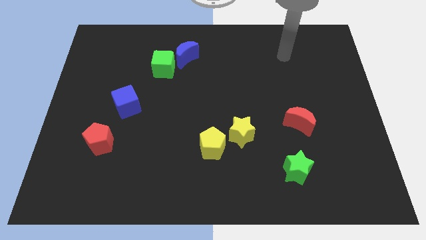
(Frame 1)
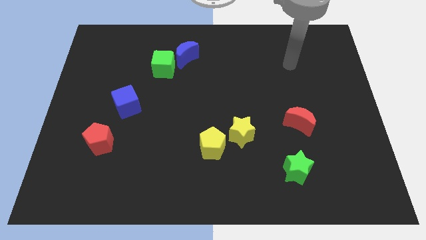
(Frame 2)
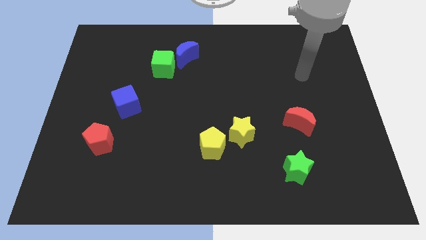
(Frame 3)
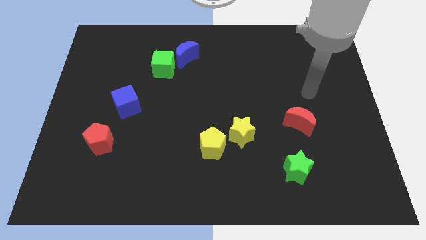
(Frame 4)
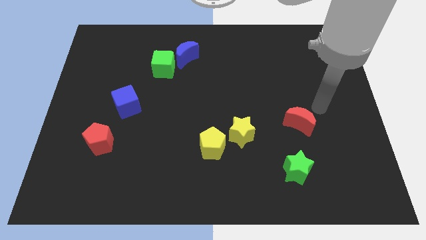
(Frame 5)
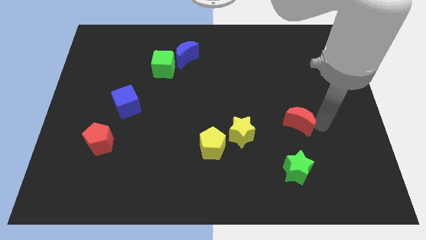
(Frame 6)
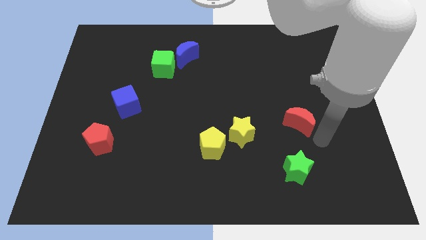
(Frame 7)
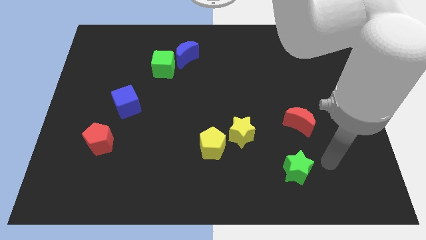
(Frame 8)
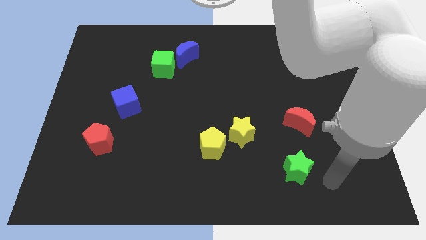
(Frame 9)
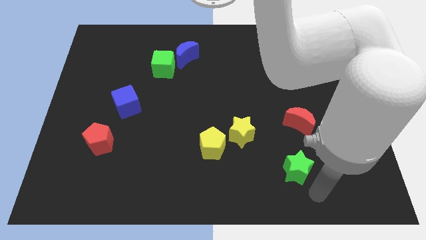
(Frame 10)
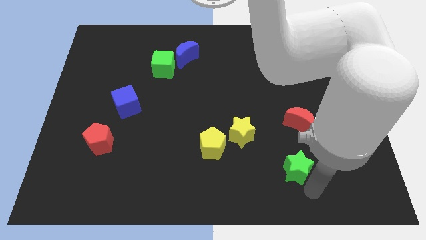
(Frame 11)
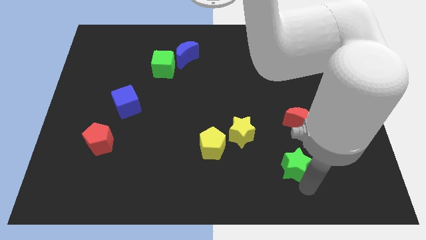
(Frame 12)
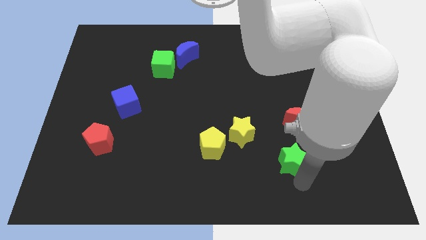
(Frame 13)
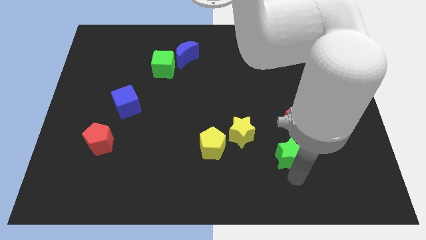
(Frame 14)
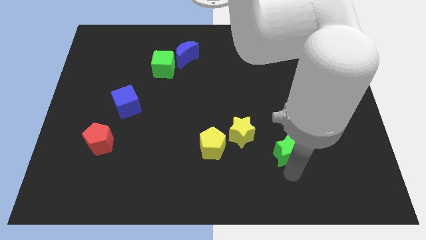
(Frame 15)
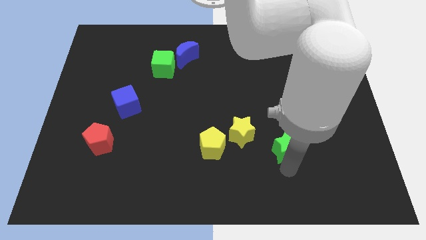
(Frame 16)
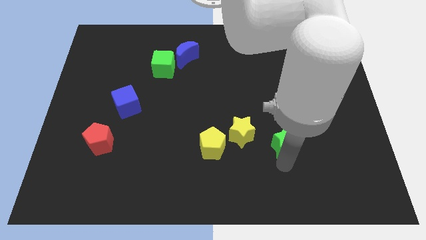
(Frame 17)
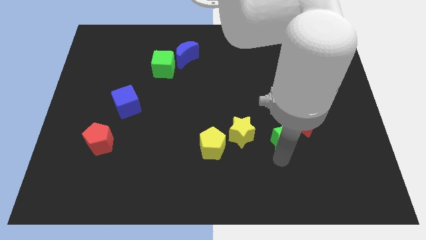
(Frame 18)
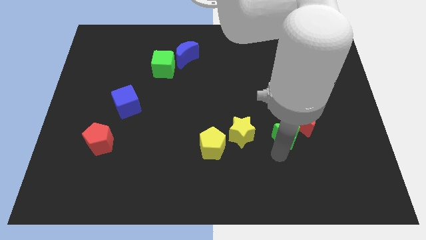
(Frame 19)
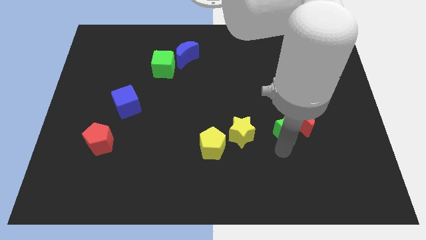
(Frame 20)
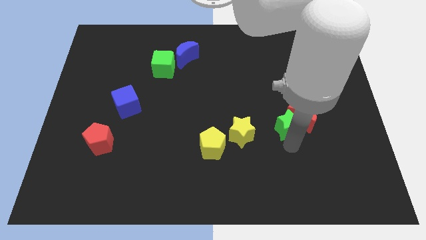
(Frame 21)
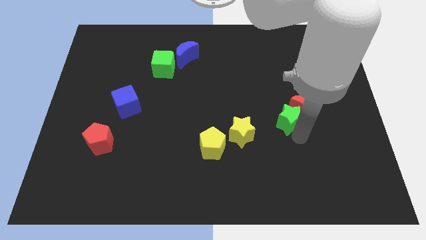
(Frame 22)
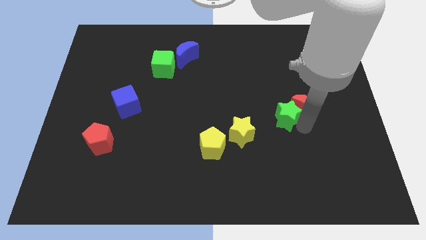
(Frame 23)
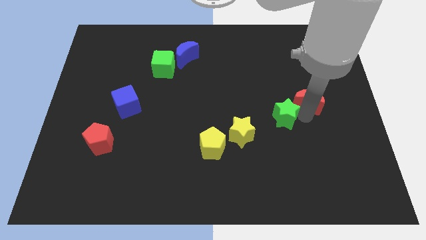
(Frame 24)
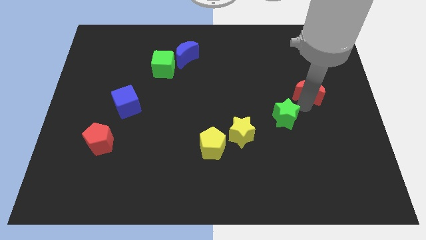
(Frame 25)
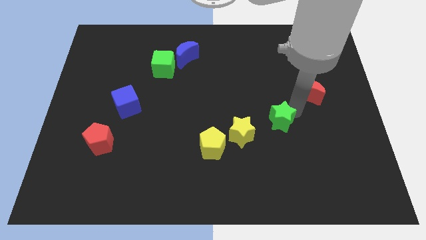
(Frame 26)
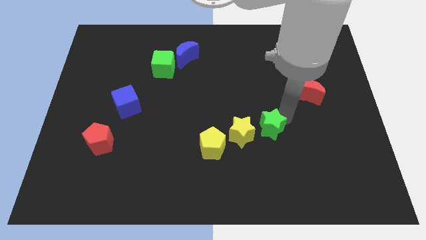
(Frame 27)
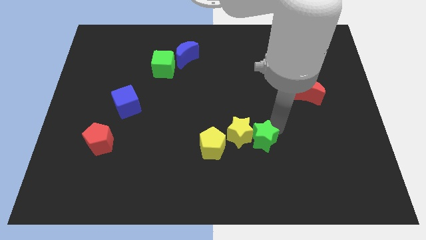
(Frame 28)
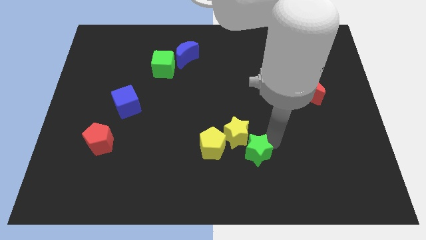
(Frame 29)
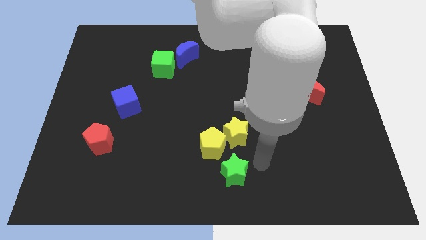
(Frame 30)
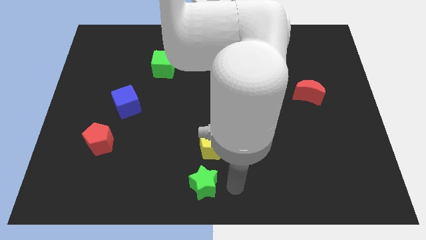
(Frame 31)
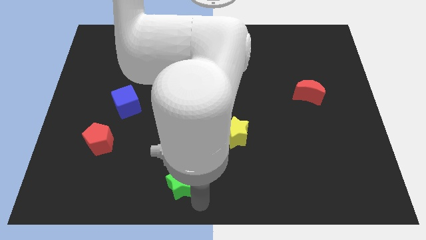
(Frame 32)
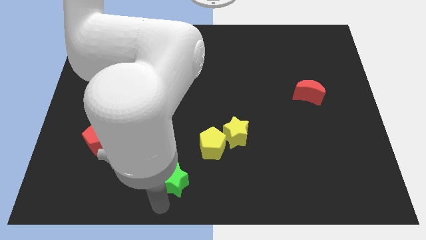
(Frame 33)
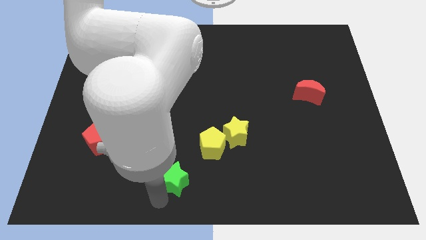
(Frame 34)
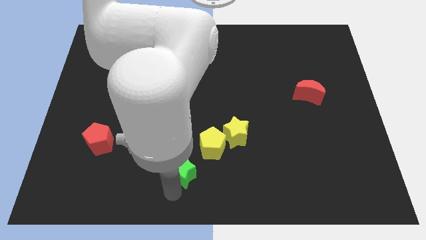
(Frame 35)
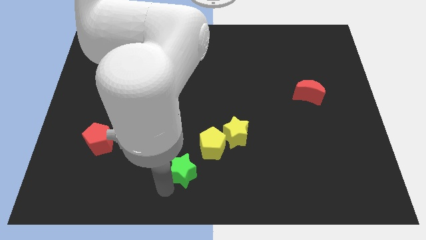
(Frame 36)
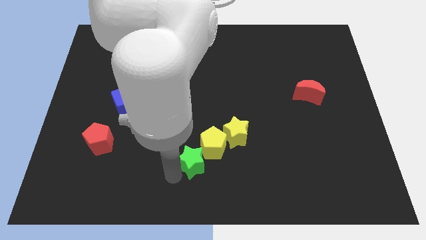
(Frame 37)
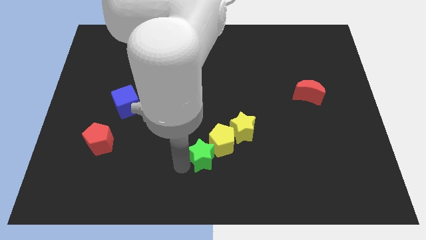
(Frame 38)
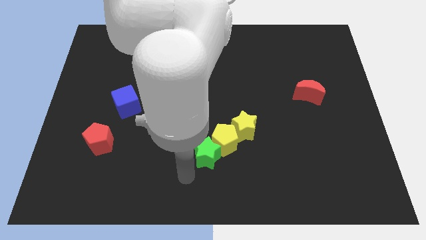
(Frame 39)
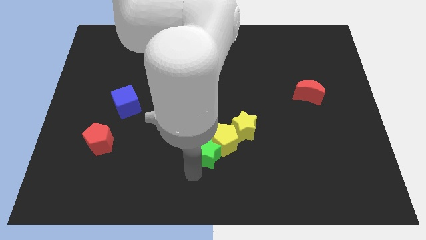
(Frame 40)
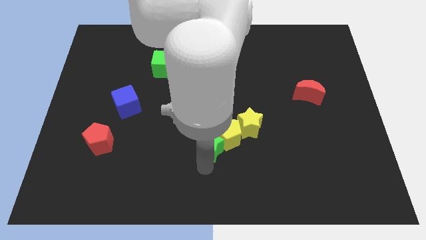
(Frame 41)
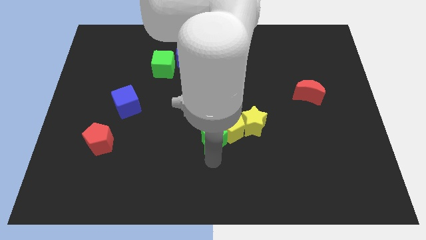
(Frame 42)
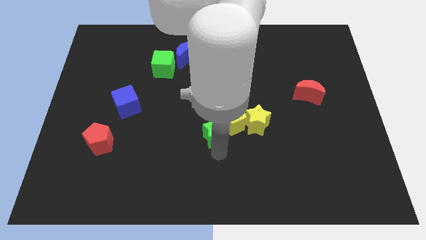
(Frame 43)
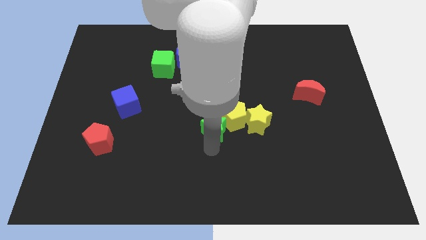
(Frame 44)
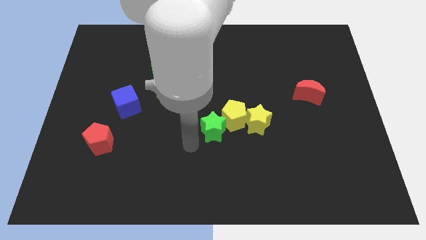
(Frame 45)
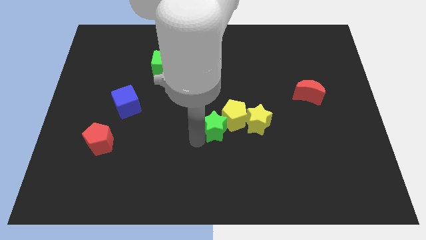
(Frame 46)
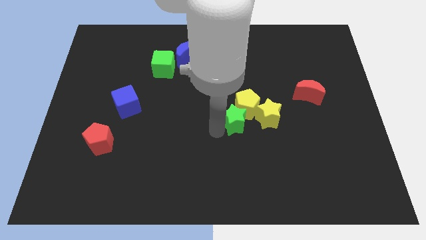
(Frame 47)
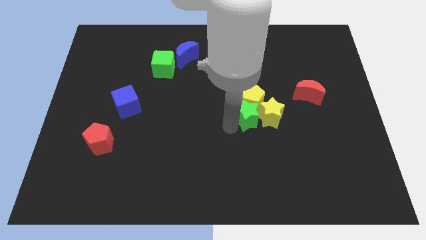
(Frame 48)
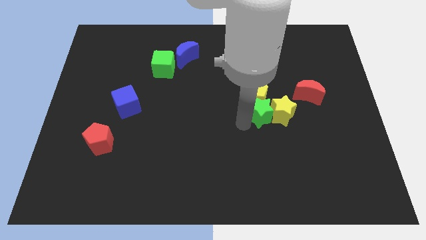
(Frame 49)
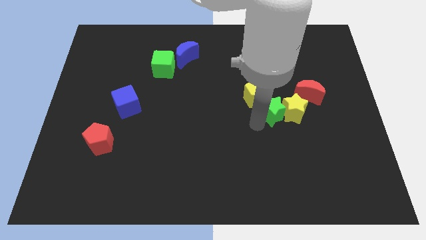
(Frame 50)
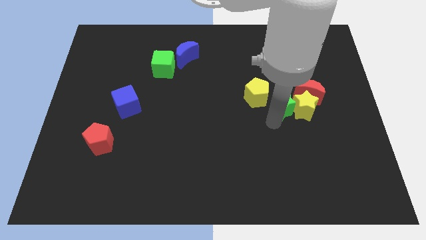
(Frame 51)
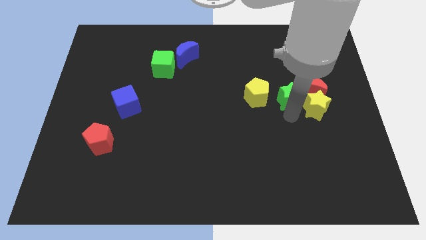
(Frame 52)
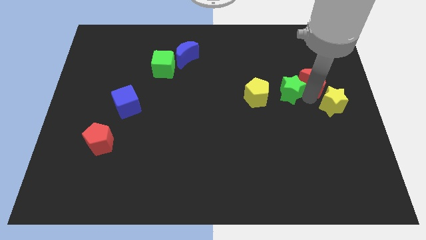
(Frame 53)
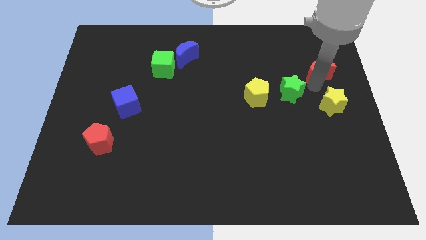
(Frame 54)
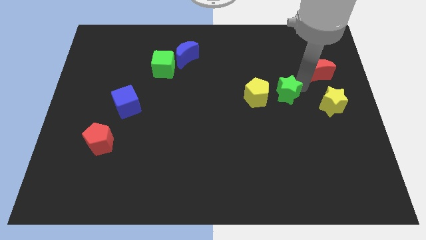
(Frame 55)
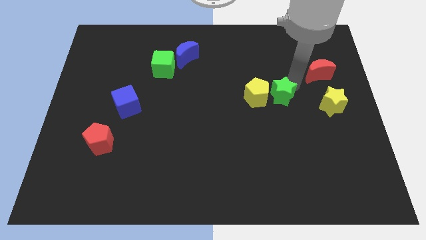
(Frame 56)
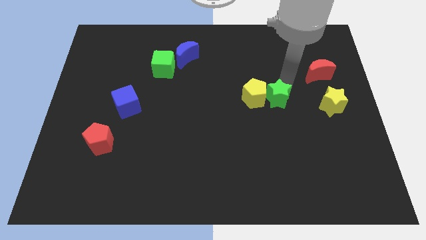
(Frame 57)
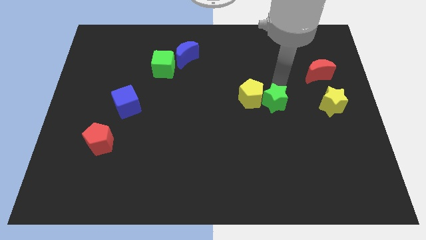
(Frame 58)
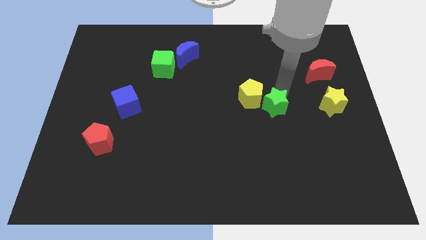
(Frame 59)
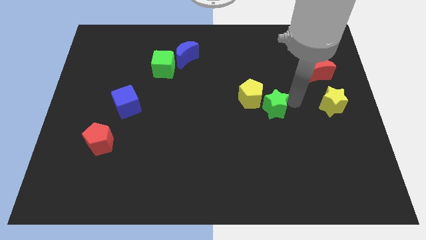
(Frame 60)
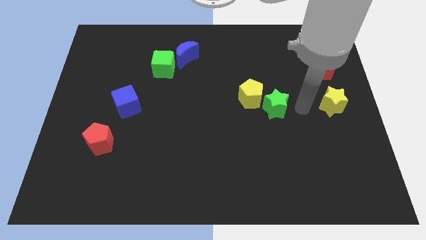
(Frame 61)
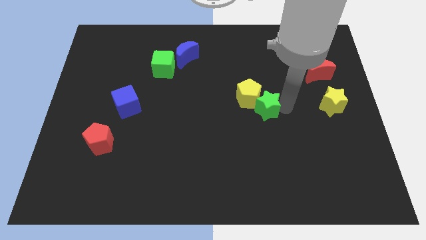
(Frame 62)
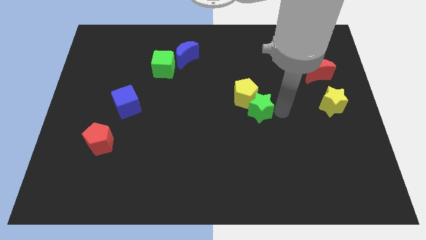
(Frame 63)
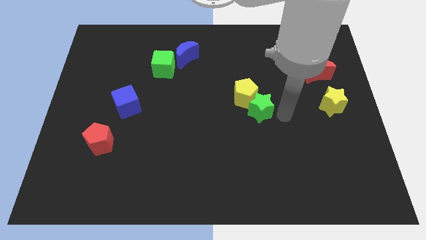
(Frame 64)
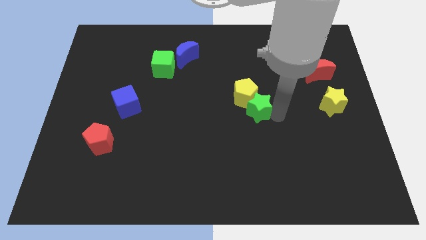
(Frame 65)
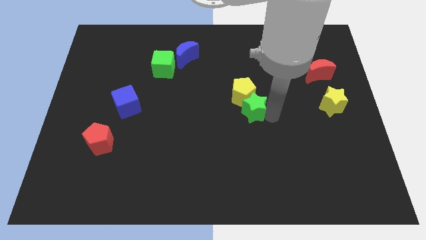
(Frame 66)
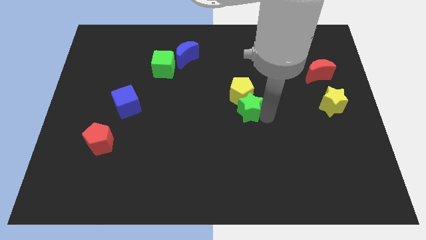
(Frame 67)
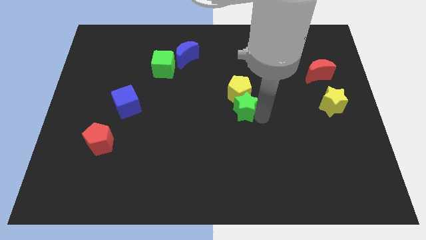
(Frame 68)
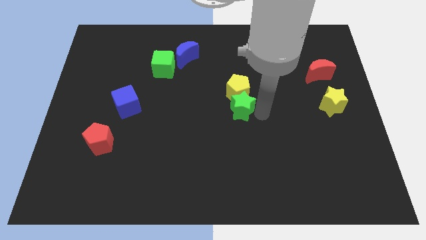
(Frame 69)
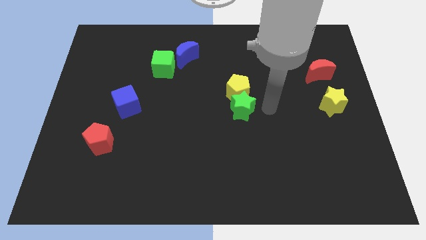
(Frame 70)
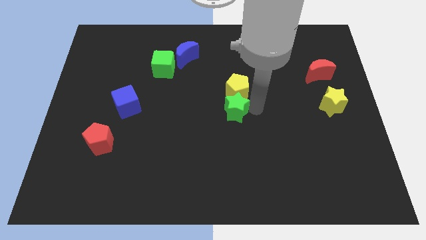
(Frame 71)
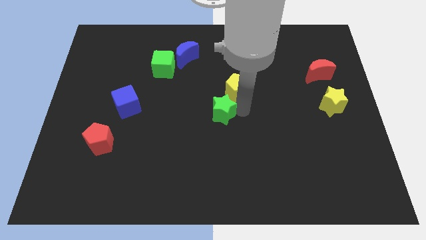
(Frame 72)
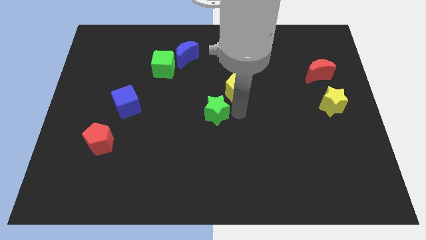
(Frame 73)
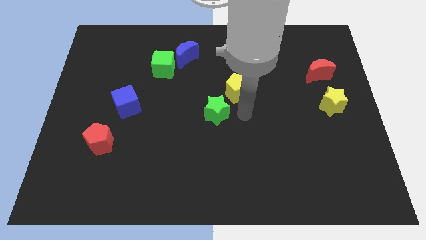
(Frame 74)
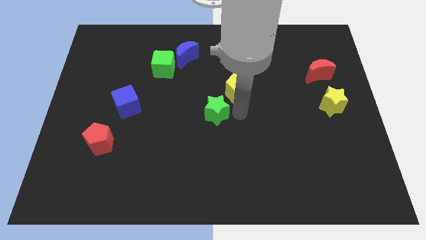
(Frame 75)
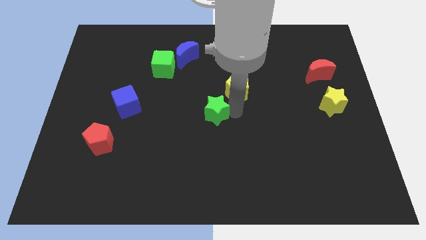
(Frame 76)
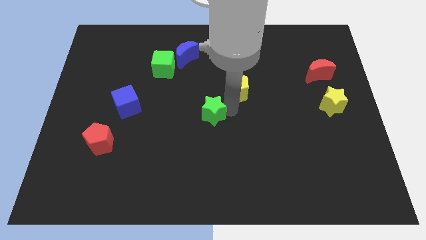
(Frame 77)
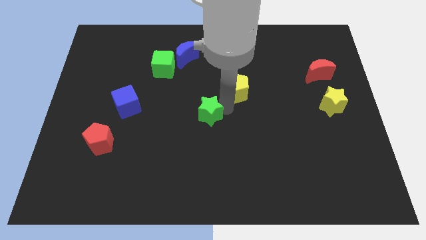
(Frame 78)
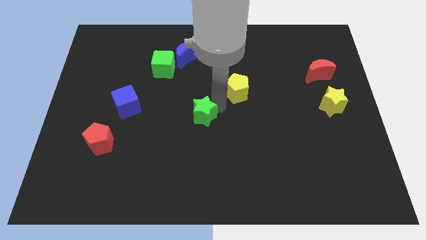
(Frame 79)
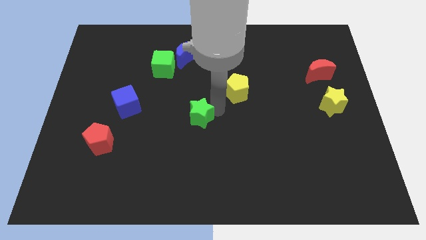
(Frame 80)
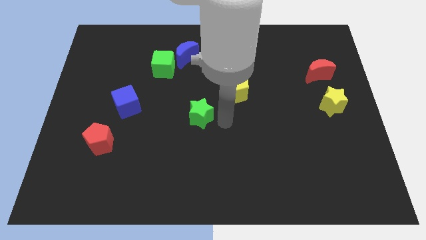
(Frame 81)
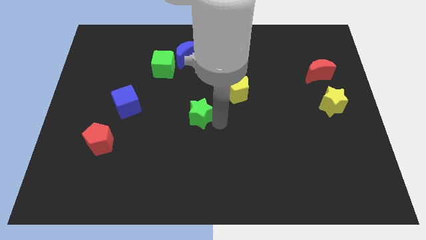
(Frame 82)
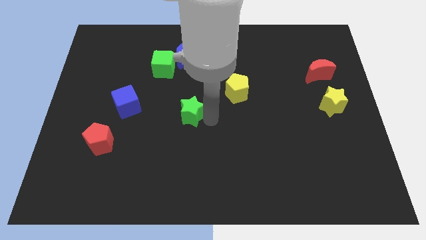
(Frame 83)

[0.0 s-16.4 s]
slide the green star right of the blue cube
